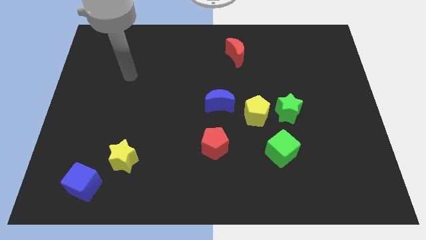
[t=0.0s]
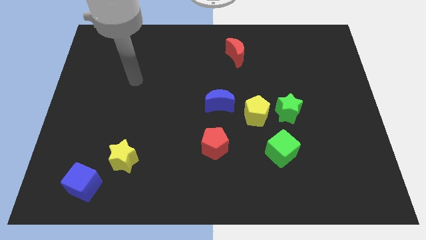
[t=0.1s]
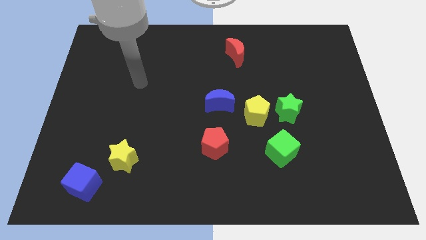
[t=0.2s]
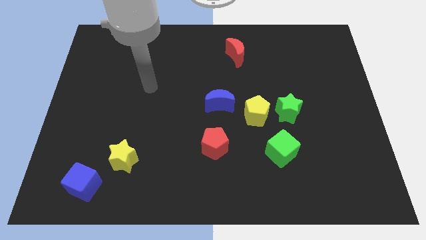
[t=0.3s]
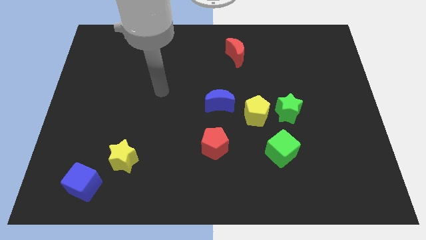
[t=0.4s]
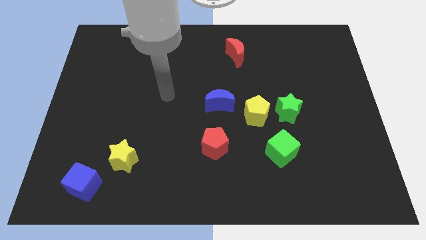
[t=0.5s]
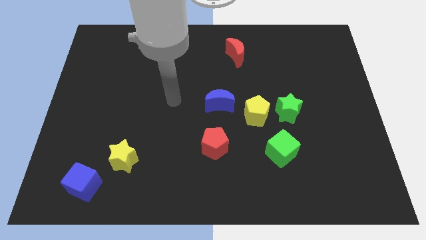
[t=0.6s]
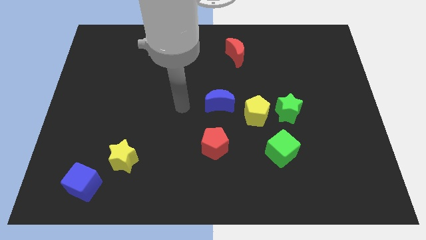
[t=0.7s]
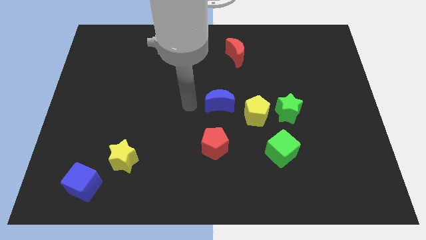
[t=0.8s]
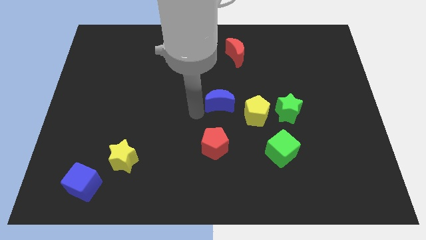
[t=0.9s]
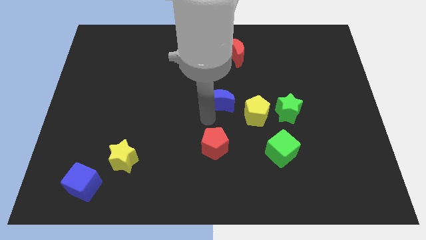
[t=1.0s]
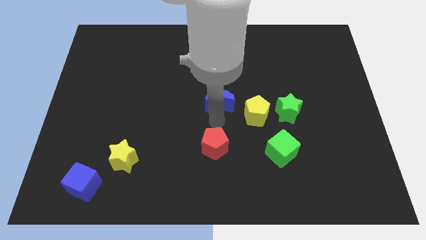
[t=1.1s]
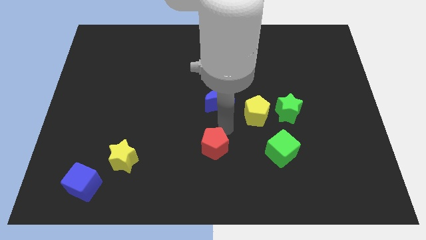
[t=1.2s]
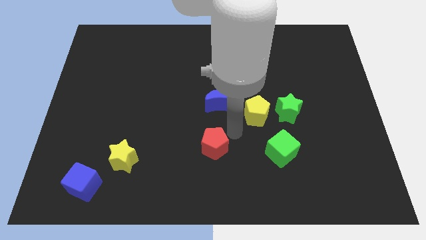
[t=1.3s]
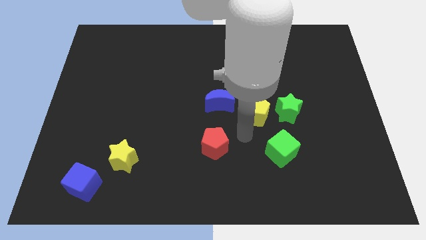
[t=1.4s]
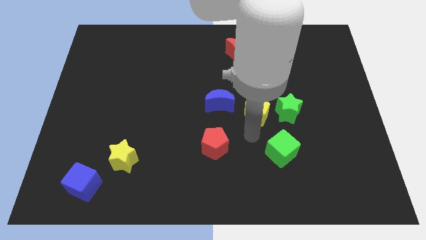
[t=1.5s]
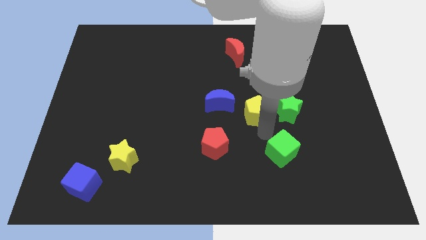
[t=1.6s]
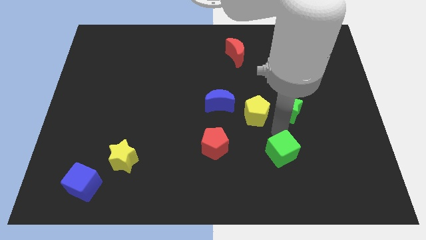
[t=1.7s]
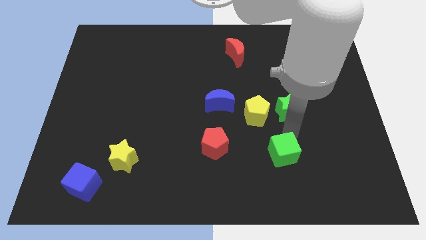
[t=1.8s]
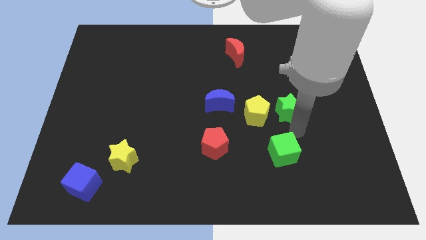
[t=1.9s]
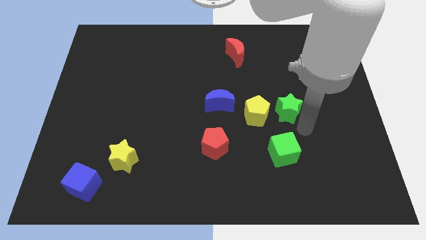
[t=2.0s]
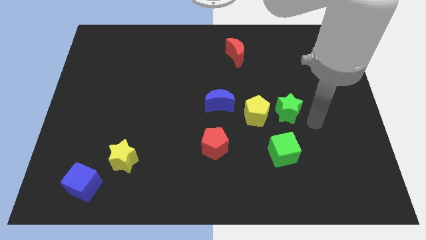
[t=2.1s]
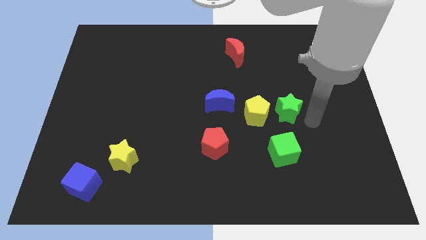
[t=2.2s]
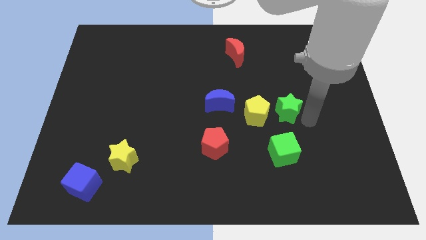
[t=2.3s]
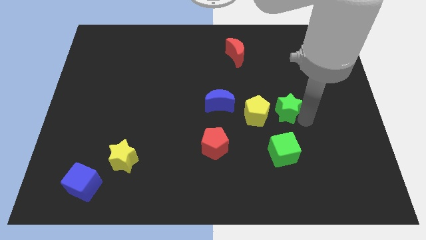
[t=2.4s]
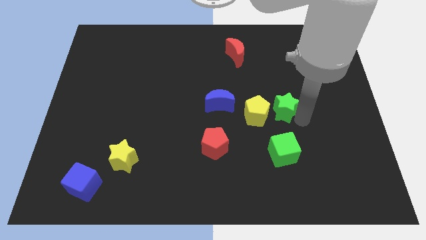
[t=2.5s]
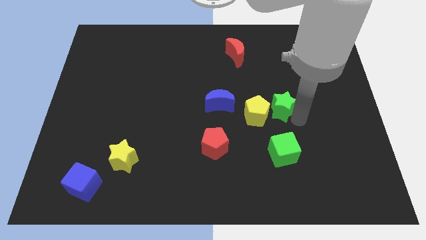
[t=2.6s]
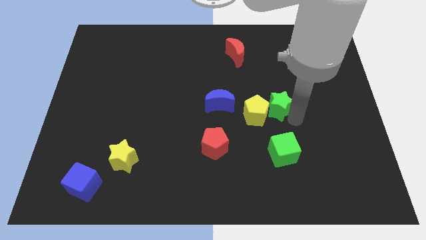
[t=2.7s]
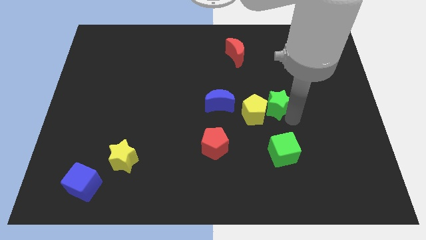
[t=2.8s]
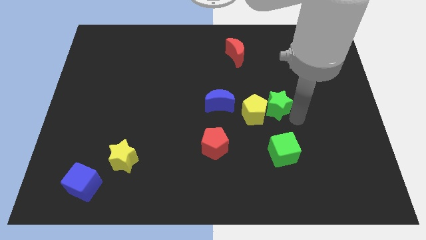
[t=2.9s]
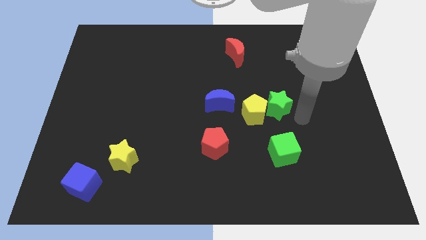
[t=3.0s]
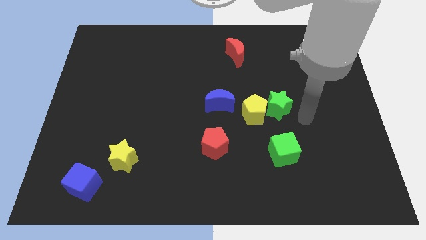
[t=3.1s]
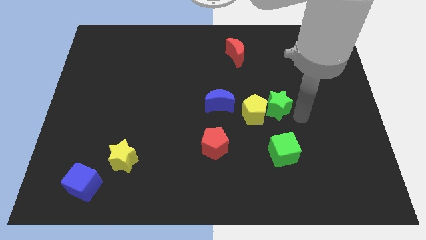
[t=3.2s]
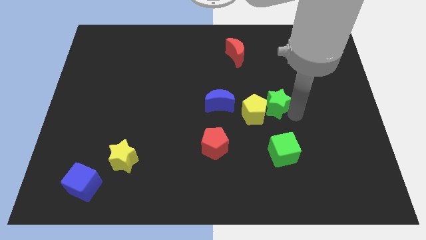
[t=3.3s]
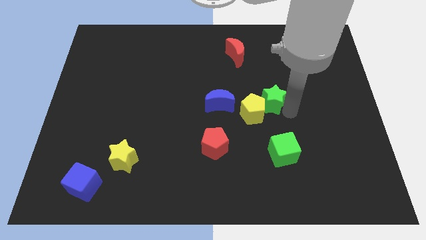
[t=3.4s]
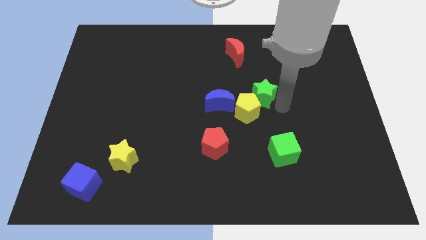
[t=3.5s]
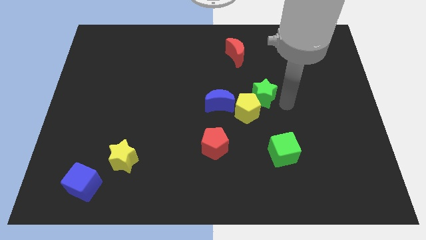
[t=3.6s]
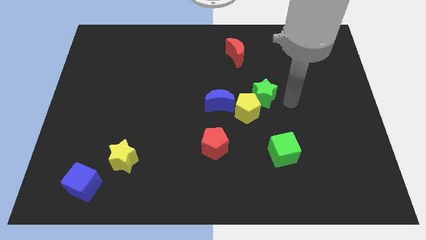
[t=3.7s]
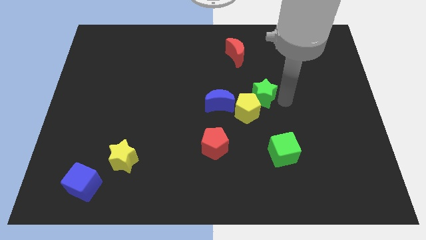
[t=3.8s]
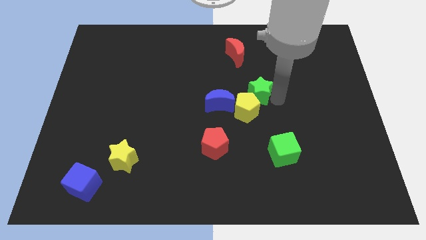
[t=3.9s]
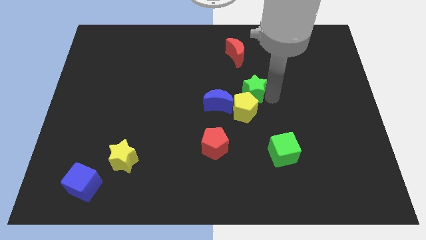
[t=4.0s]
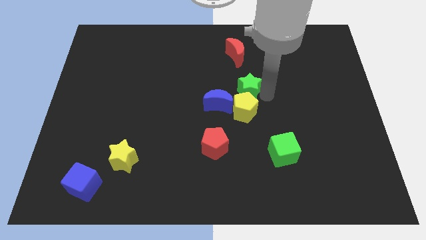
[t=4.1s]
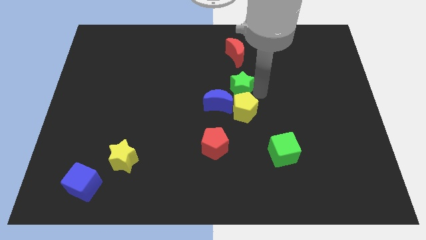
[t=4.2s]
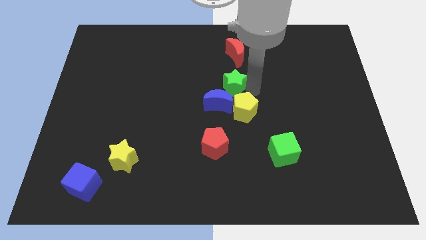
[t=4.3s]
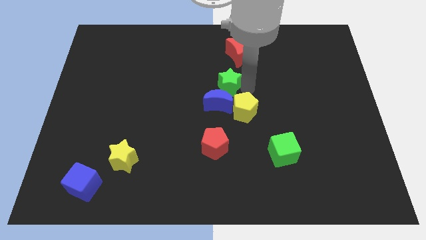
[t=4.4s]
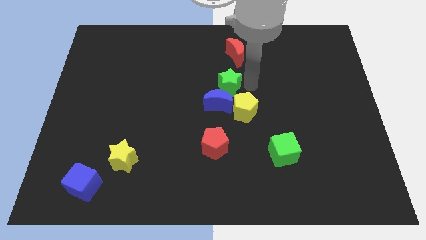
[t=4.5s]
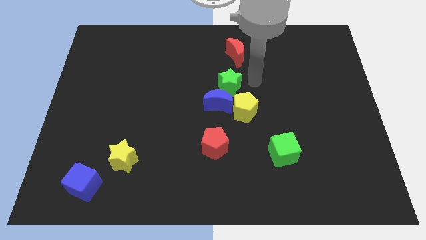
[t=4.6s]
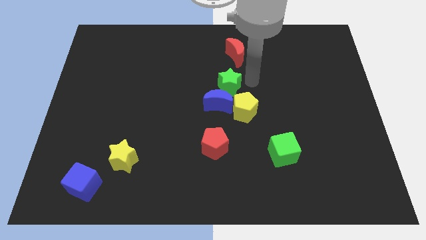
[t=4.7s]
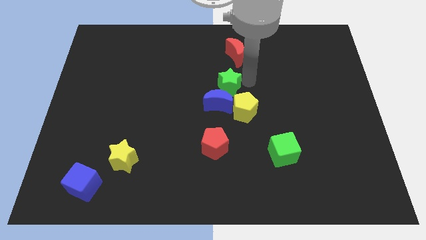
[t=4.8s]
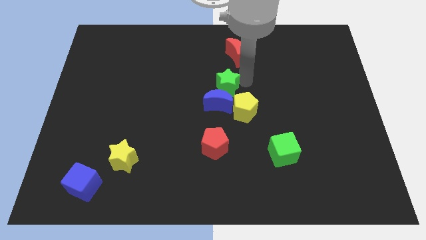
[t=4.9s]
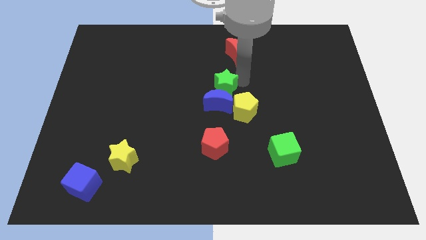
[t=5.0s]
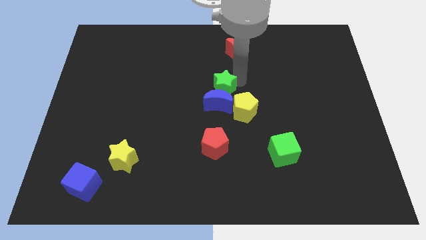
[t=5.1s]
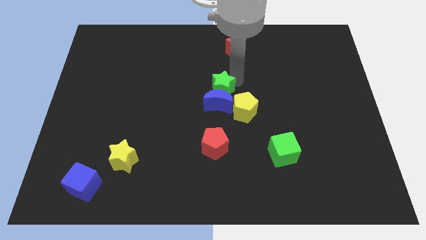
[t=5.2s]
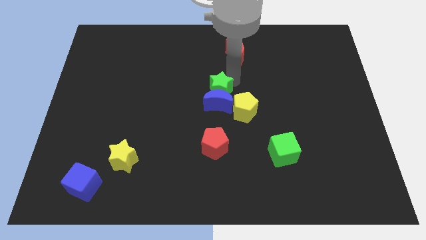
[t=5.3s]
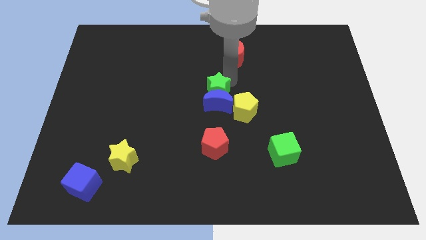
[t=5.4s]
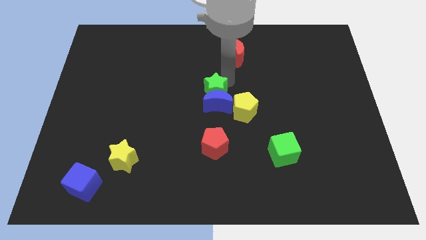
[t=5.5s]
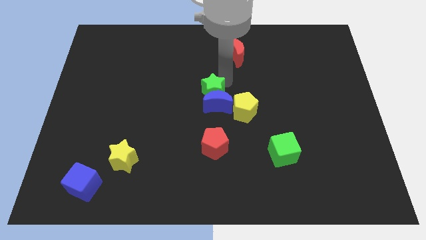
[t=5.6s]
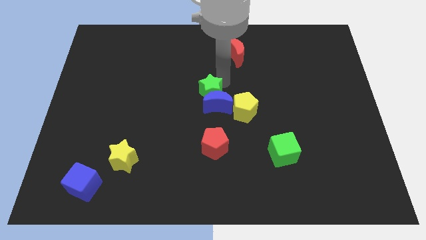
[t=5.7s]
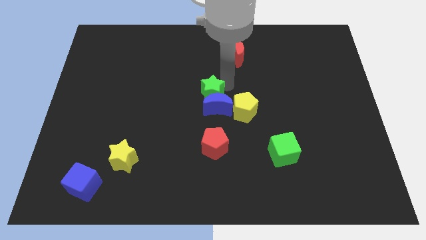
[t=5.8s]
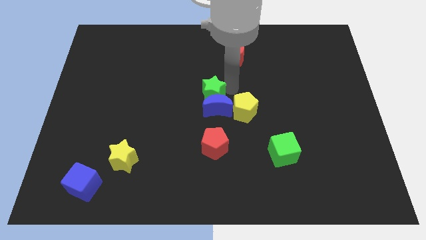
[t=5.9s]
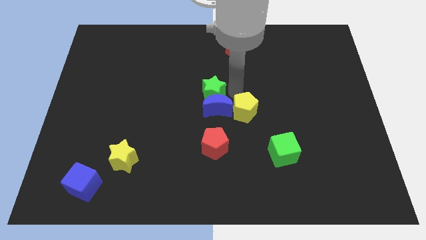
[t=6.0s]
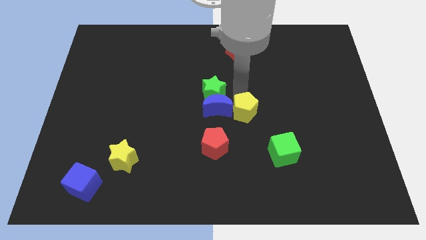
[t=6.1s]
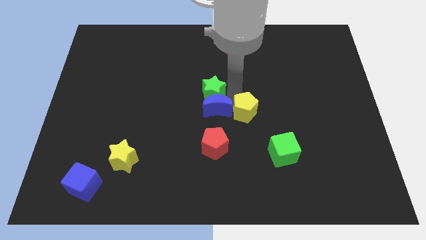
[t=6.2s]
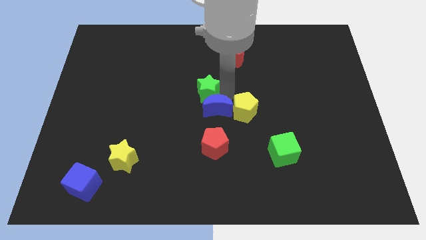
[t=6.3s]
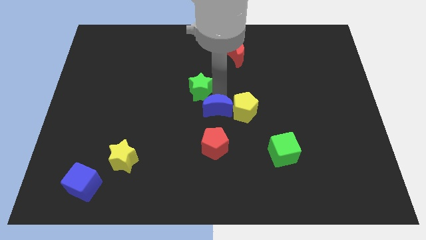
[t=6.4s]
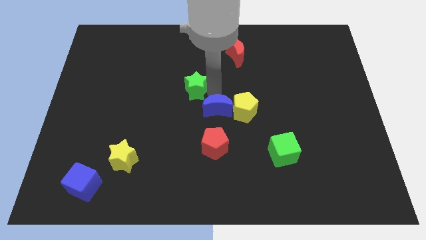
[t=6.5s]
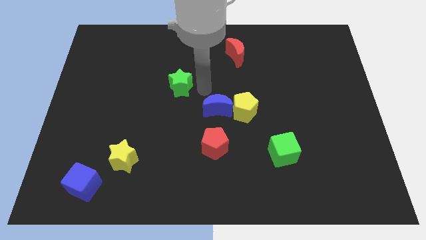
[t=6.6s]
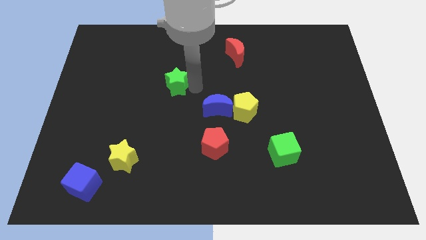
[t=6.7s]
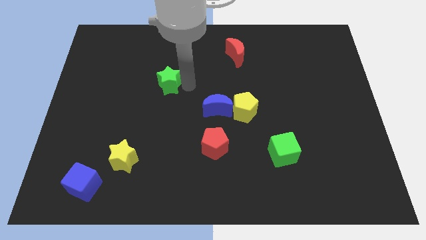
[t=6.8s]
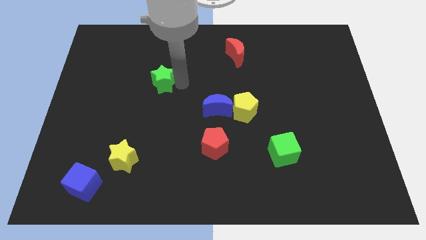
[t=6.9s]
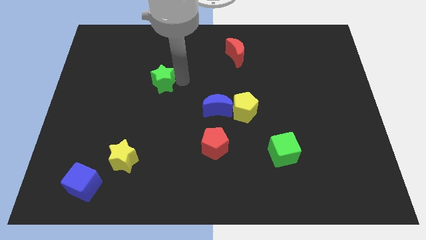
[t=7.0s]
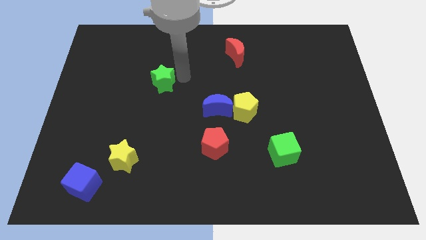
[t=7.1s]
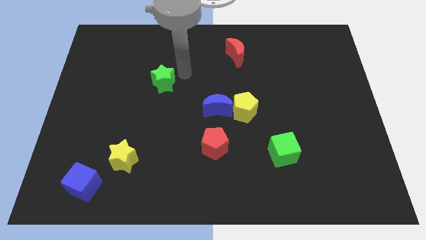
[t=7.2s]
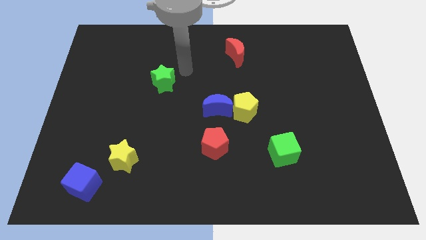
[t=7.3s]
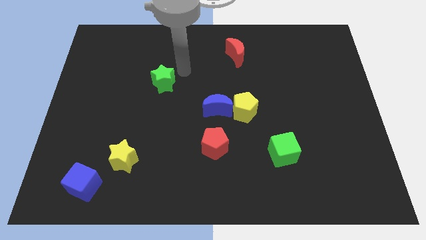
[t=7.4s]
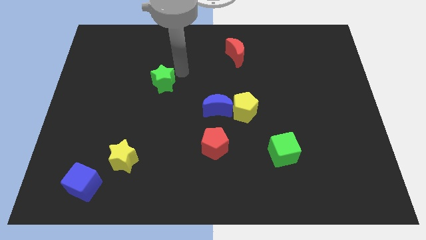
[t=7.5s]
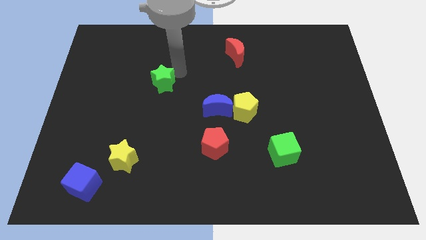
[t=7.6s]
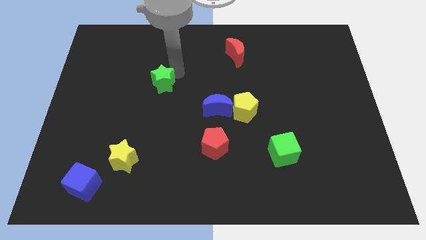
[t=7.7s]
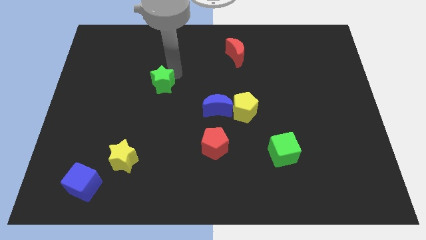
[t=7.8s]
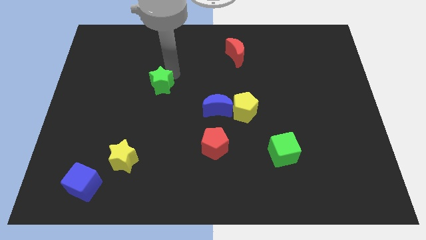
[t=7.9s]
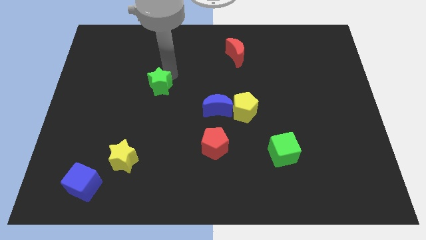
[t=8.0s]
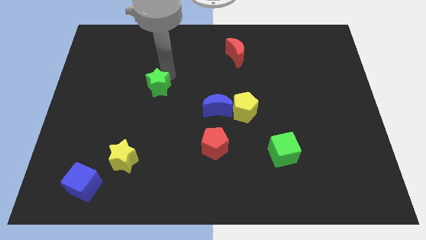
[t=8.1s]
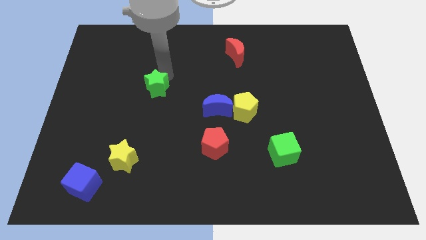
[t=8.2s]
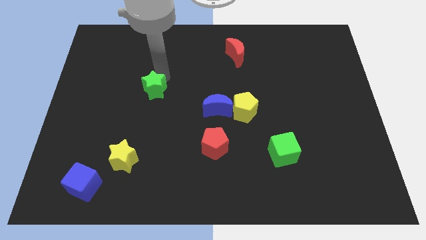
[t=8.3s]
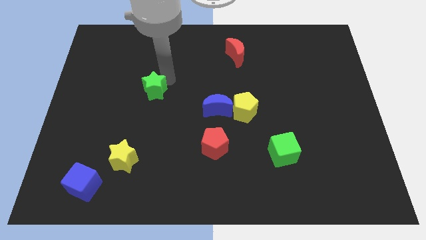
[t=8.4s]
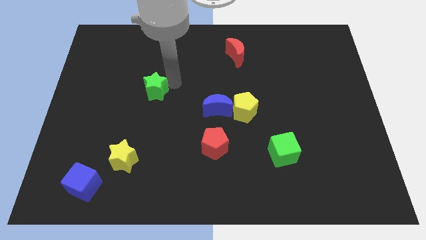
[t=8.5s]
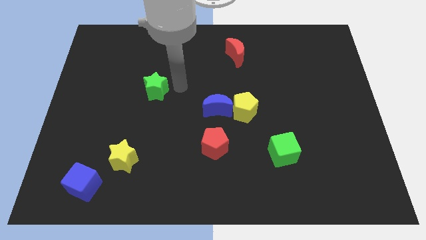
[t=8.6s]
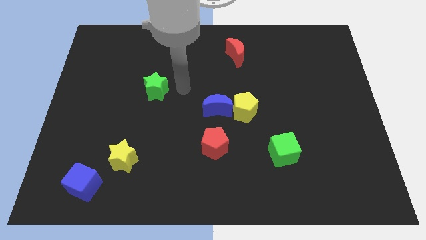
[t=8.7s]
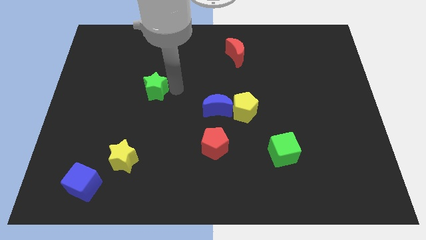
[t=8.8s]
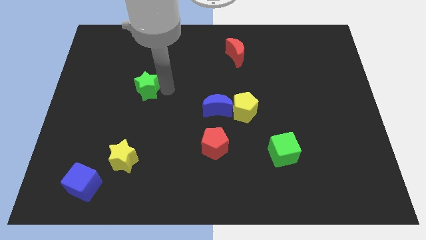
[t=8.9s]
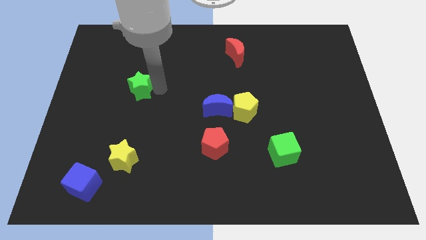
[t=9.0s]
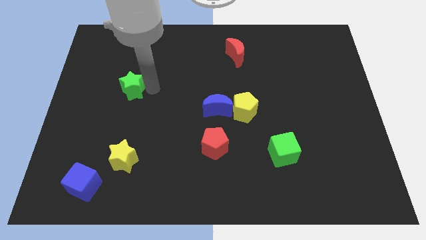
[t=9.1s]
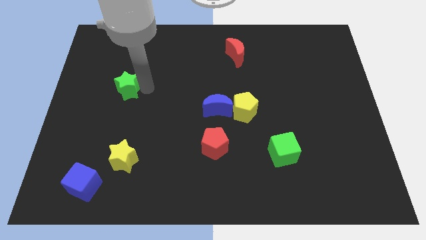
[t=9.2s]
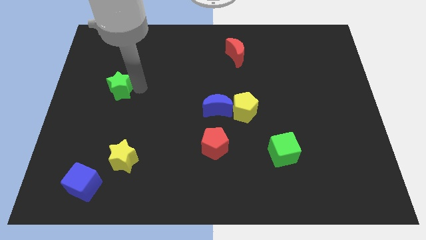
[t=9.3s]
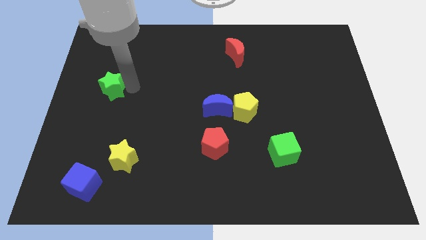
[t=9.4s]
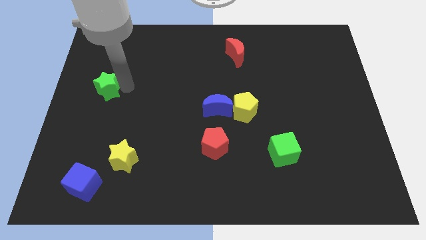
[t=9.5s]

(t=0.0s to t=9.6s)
slide the green star to the left side of the board
